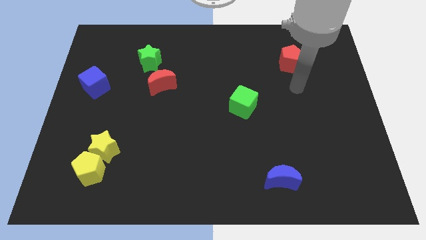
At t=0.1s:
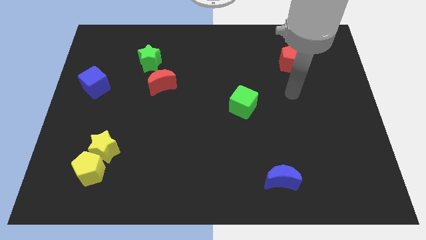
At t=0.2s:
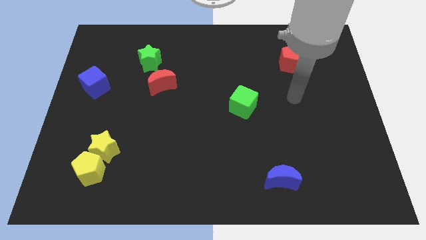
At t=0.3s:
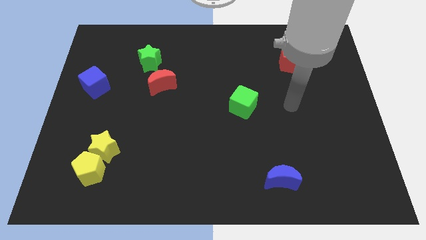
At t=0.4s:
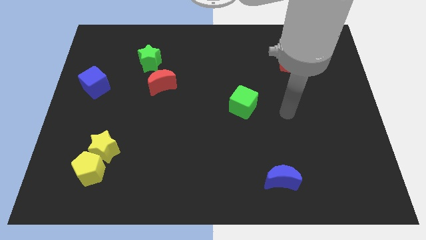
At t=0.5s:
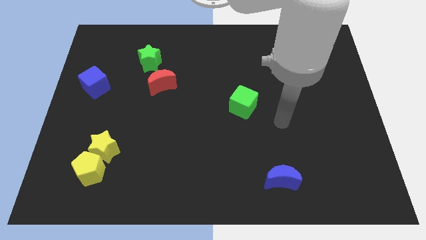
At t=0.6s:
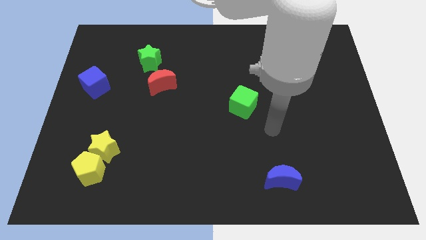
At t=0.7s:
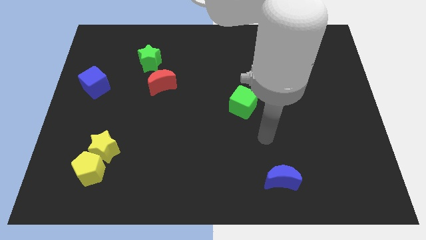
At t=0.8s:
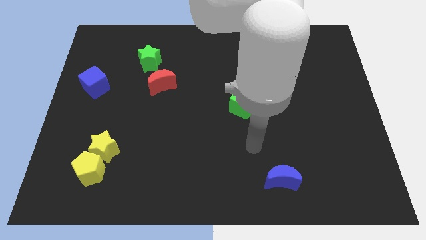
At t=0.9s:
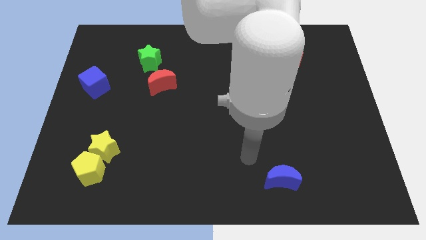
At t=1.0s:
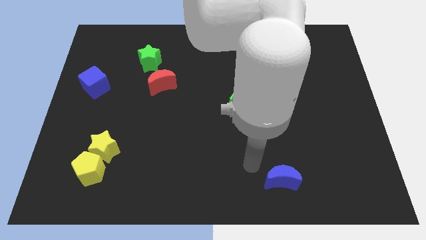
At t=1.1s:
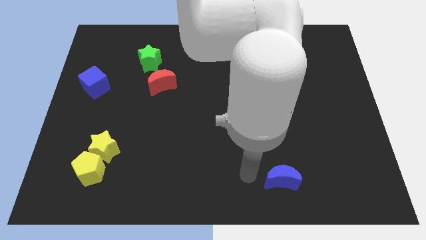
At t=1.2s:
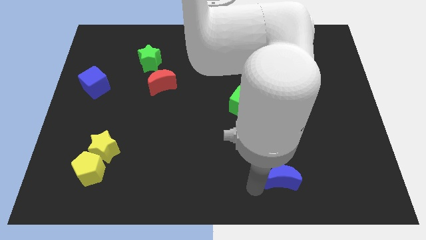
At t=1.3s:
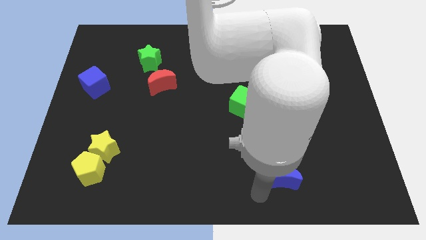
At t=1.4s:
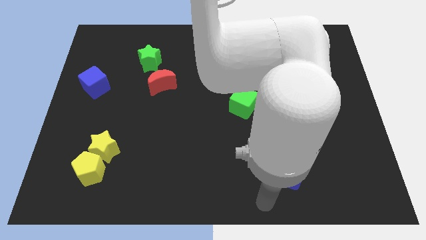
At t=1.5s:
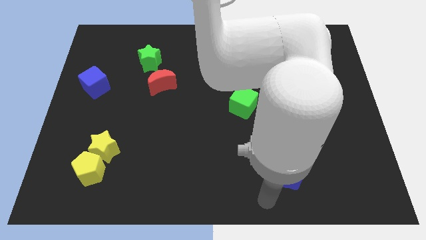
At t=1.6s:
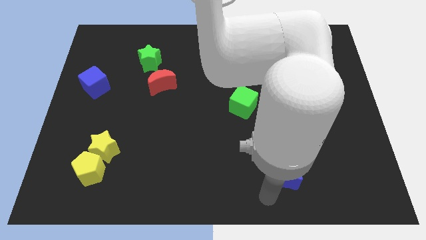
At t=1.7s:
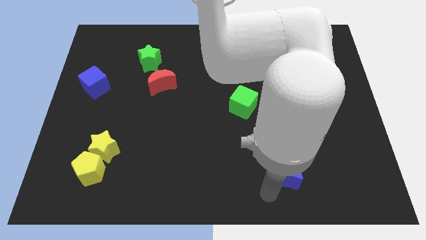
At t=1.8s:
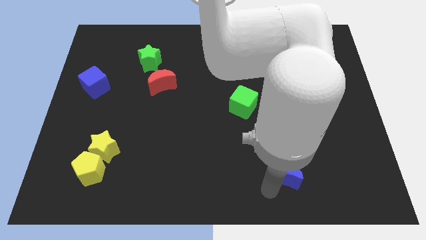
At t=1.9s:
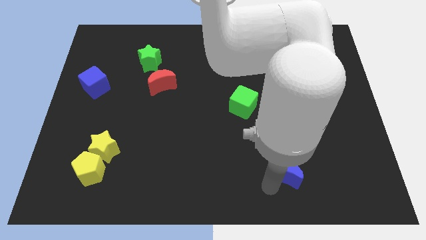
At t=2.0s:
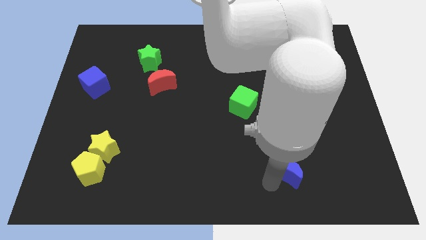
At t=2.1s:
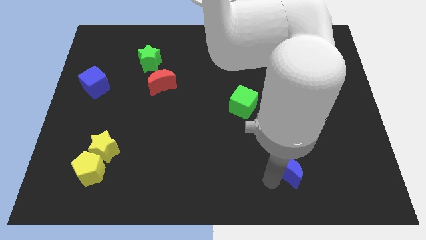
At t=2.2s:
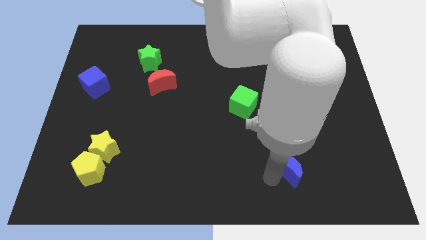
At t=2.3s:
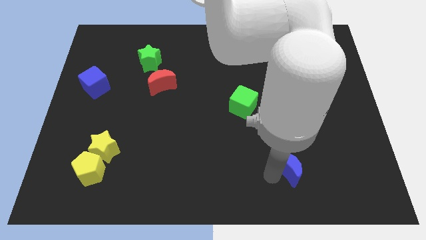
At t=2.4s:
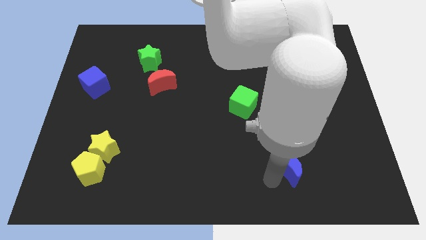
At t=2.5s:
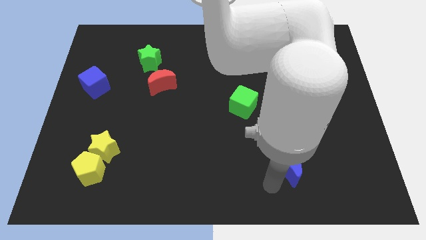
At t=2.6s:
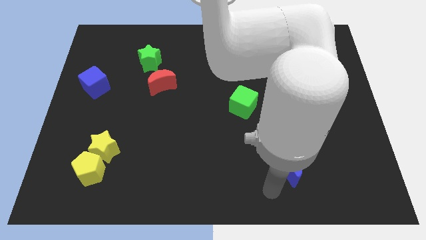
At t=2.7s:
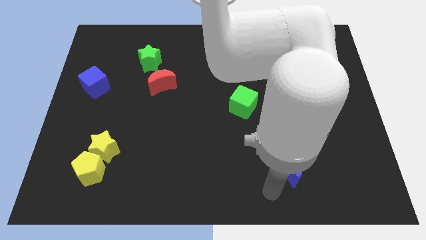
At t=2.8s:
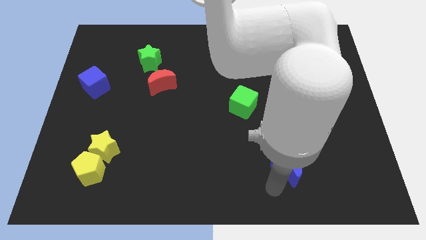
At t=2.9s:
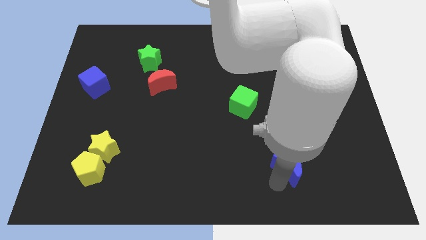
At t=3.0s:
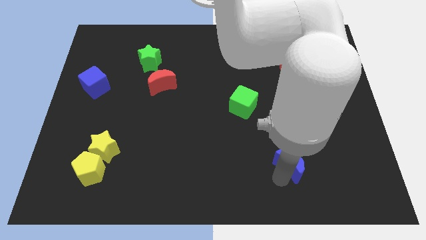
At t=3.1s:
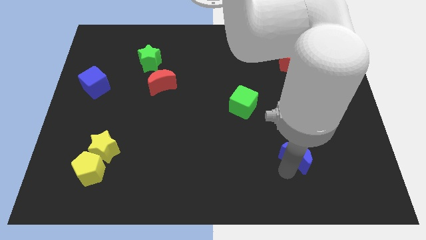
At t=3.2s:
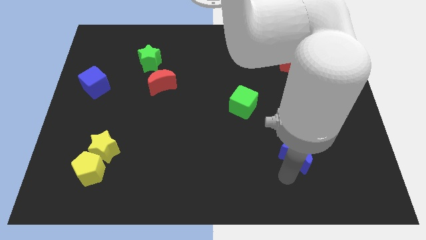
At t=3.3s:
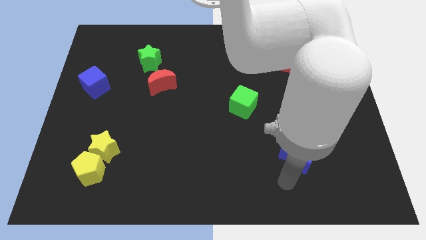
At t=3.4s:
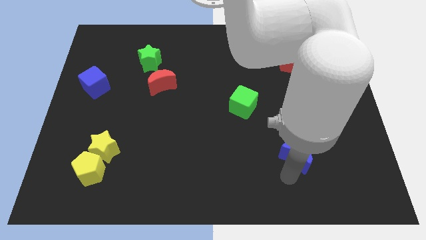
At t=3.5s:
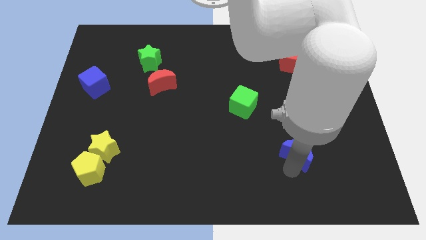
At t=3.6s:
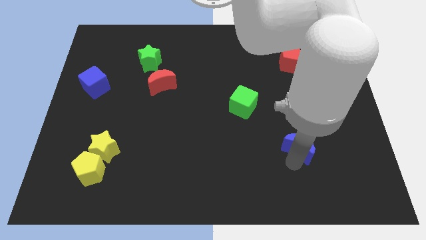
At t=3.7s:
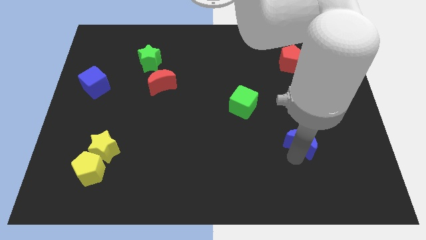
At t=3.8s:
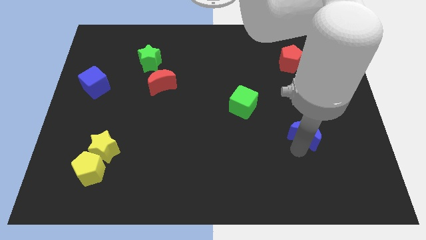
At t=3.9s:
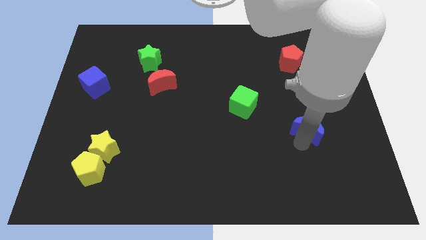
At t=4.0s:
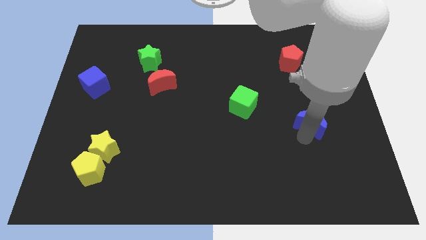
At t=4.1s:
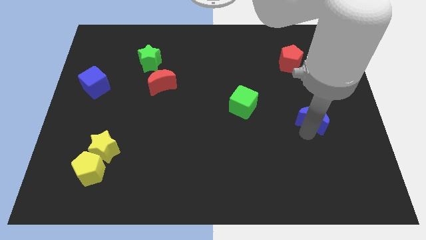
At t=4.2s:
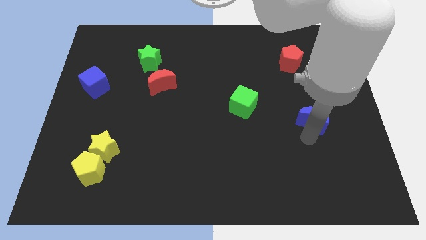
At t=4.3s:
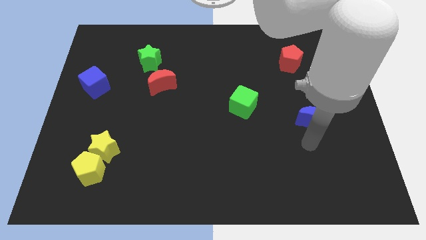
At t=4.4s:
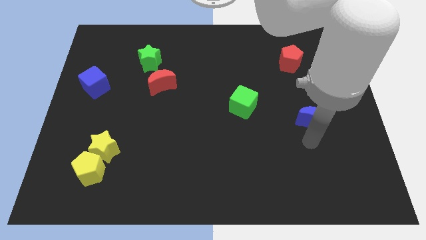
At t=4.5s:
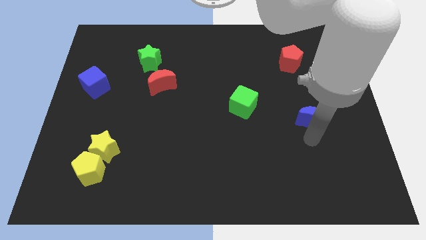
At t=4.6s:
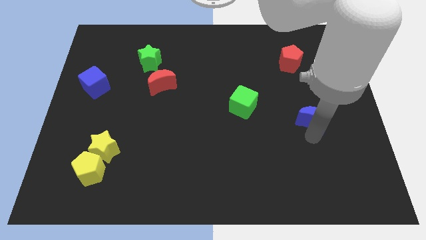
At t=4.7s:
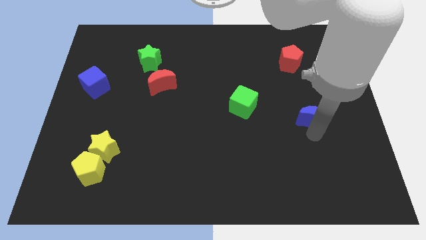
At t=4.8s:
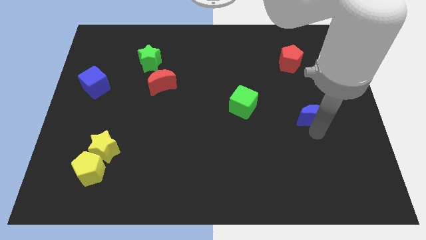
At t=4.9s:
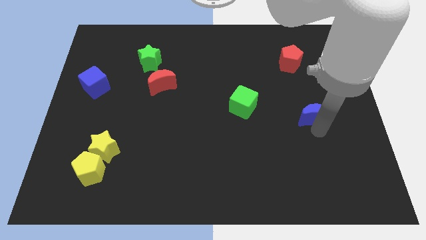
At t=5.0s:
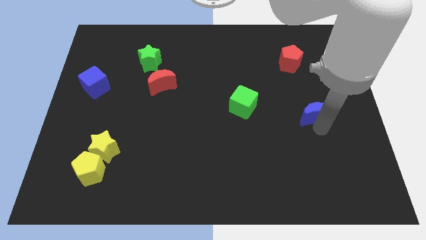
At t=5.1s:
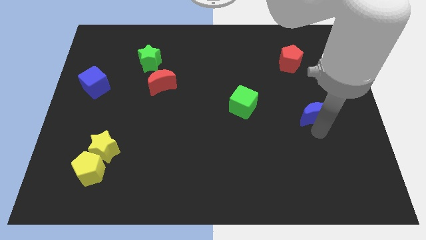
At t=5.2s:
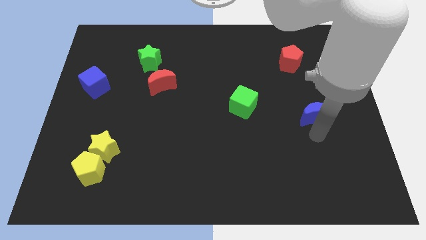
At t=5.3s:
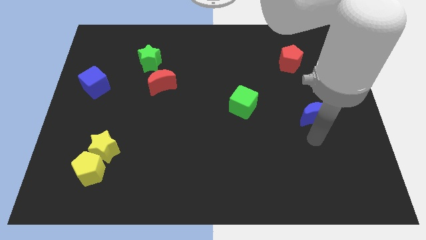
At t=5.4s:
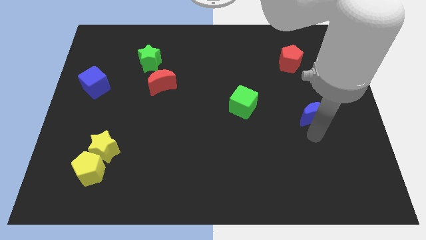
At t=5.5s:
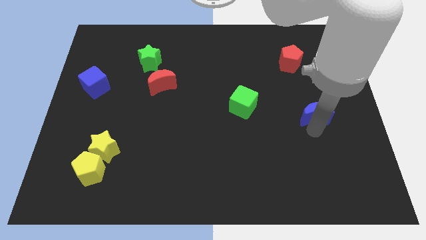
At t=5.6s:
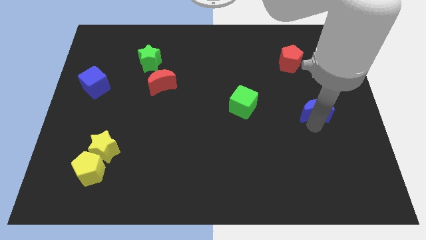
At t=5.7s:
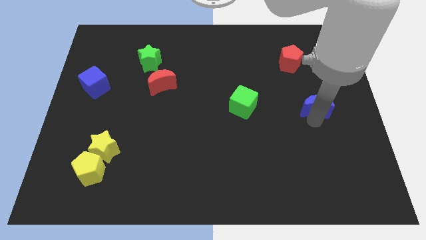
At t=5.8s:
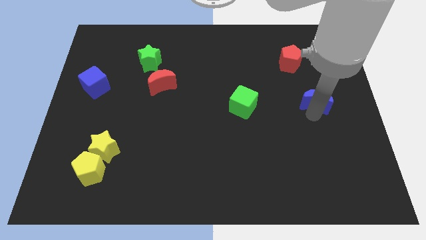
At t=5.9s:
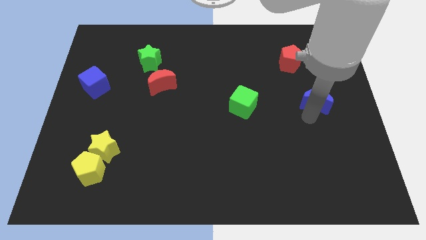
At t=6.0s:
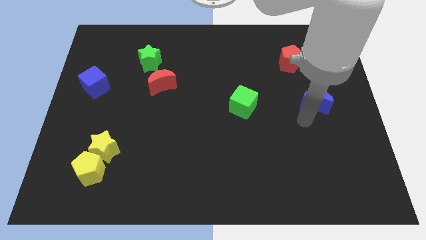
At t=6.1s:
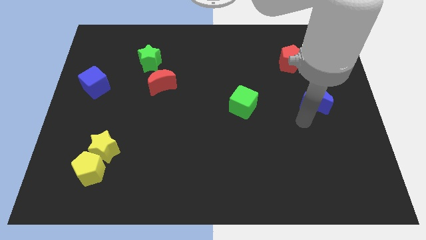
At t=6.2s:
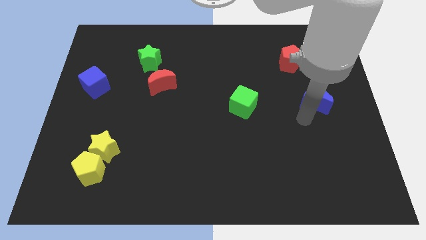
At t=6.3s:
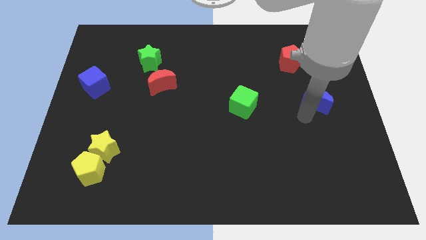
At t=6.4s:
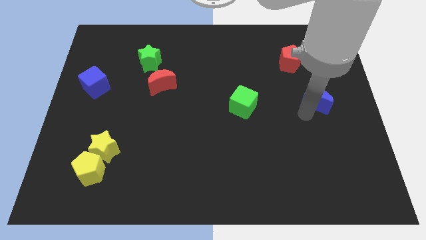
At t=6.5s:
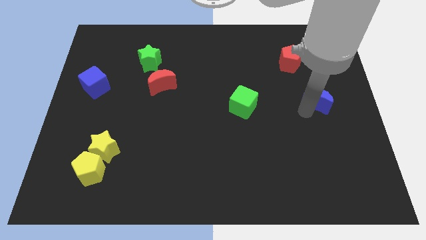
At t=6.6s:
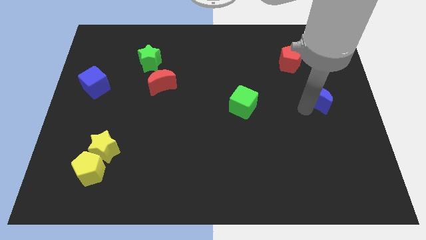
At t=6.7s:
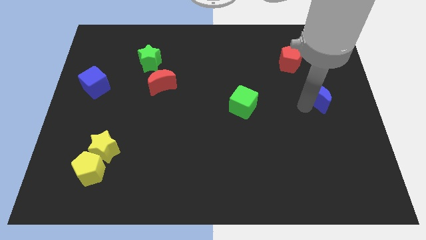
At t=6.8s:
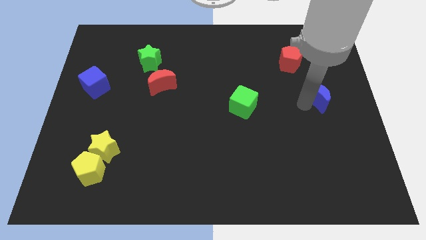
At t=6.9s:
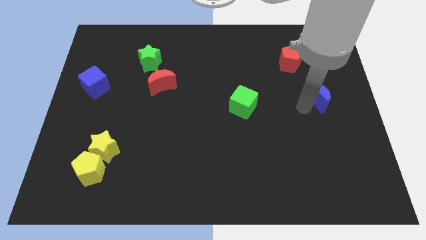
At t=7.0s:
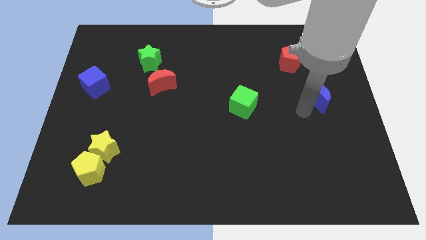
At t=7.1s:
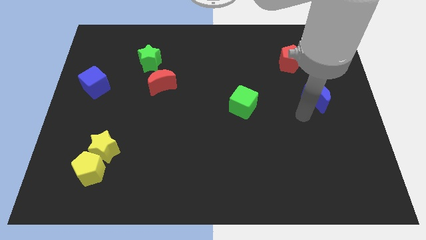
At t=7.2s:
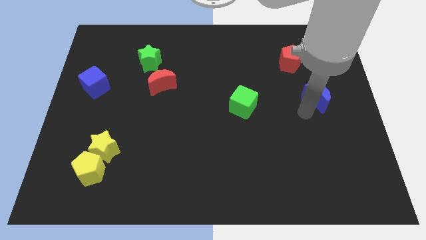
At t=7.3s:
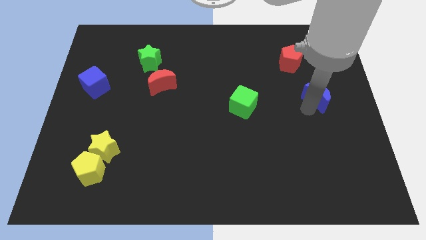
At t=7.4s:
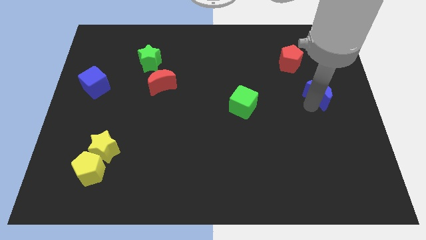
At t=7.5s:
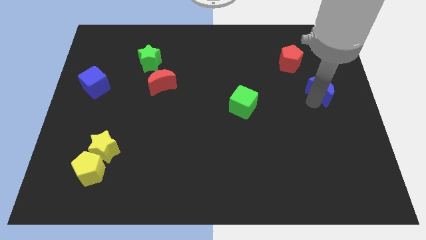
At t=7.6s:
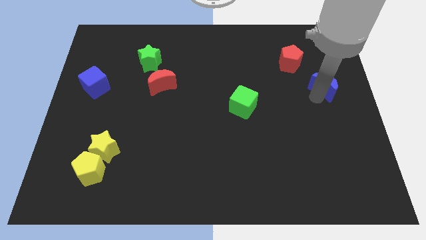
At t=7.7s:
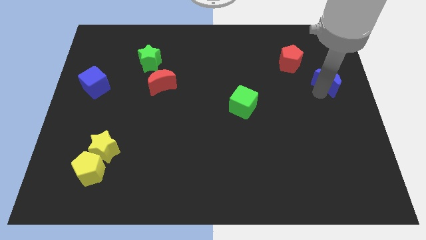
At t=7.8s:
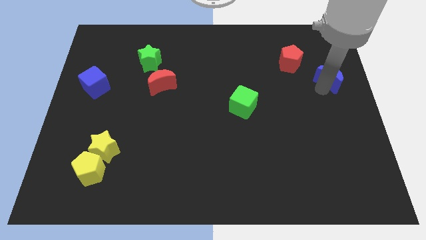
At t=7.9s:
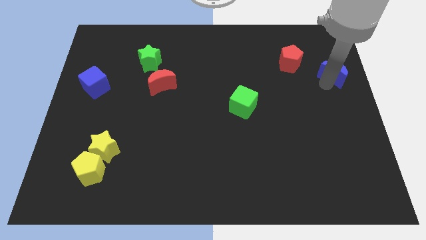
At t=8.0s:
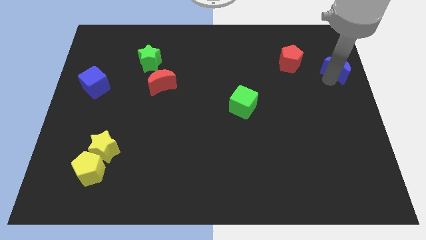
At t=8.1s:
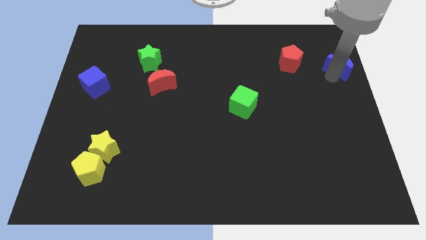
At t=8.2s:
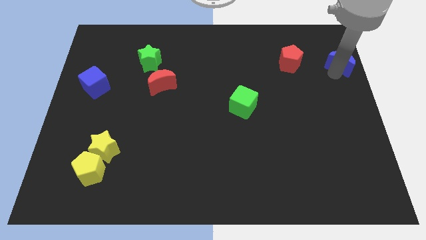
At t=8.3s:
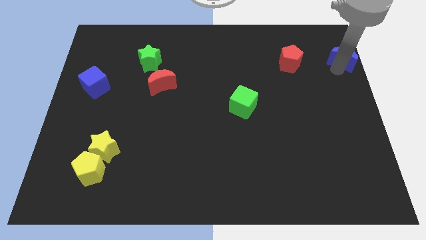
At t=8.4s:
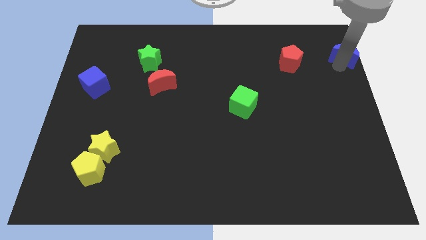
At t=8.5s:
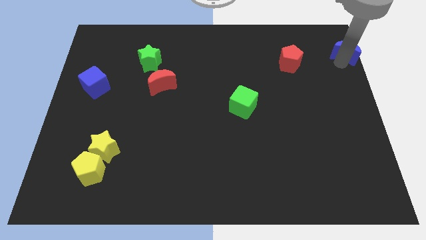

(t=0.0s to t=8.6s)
push the blue moon to the top right corner
